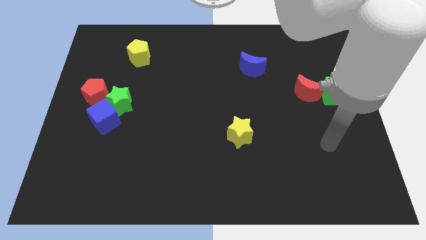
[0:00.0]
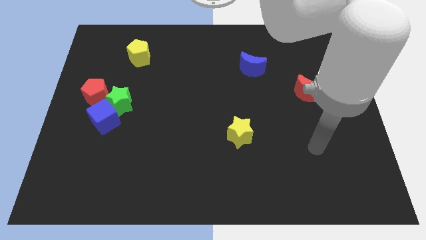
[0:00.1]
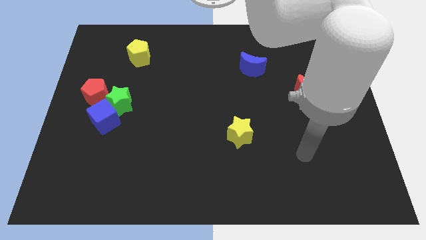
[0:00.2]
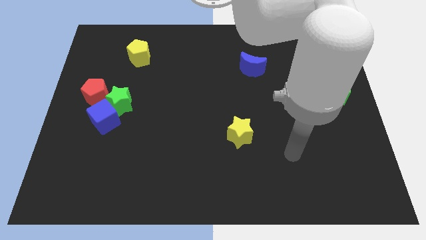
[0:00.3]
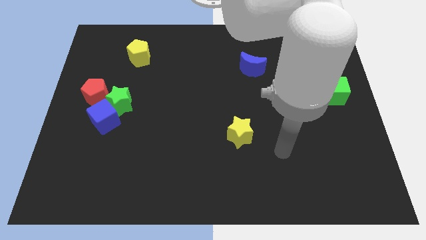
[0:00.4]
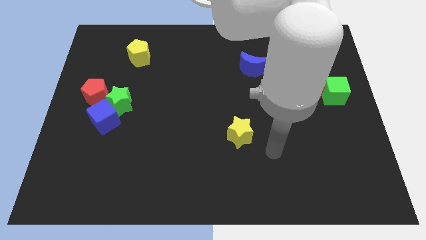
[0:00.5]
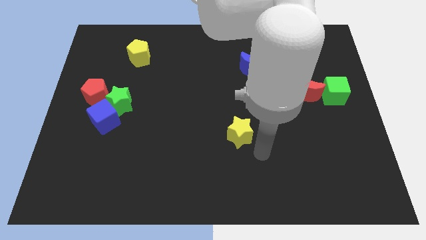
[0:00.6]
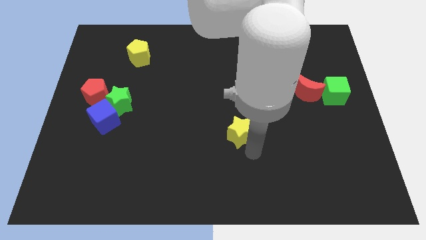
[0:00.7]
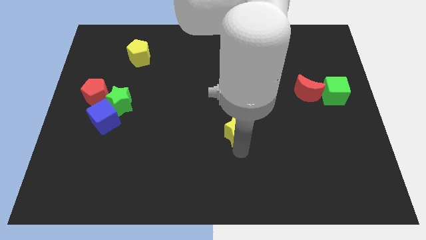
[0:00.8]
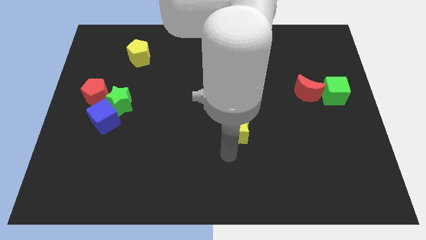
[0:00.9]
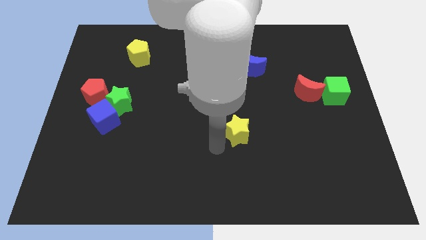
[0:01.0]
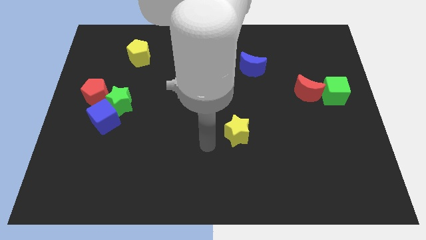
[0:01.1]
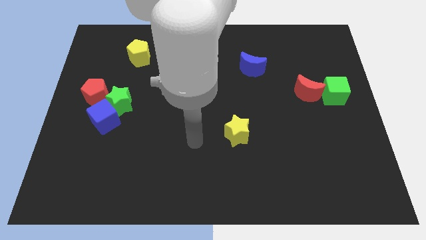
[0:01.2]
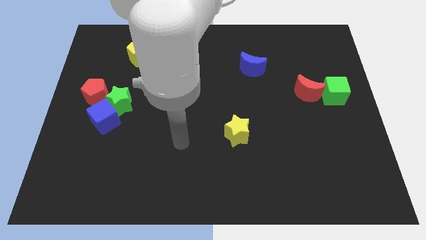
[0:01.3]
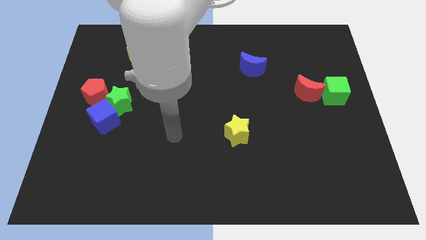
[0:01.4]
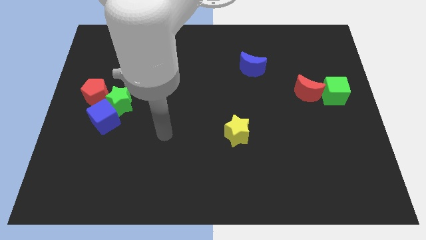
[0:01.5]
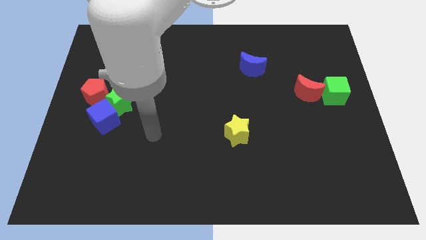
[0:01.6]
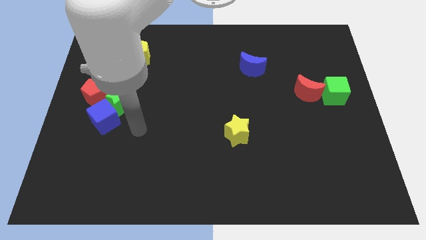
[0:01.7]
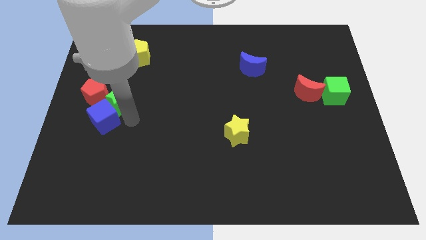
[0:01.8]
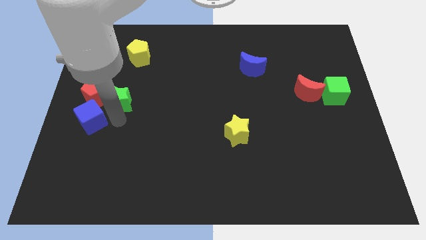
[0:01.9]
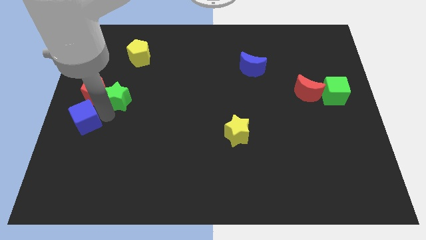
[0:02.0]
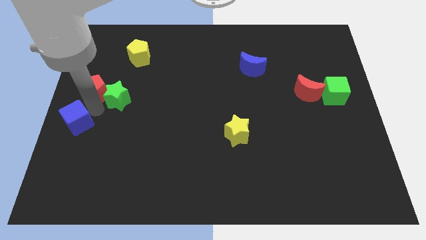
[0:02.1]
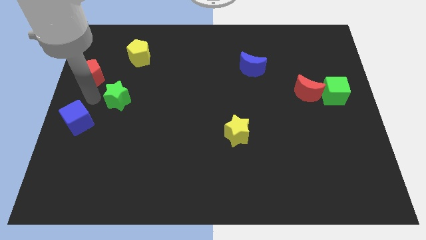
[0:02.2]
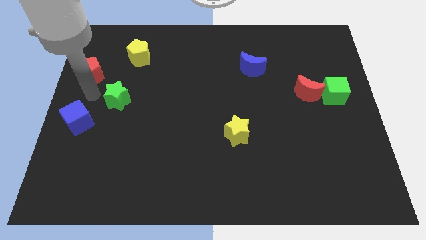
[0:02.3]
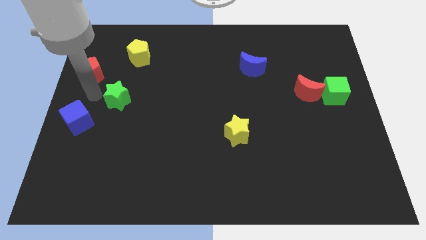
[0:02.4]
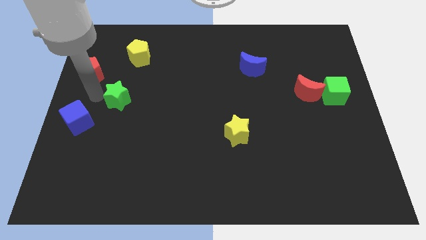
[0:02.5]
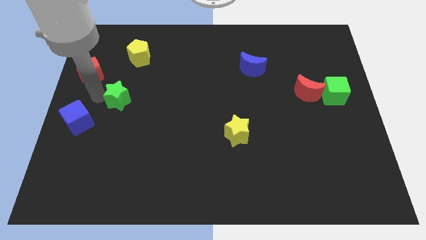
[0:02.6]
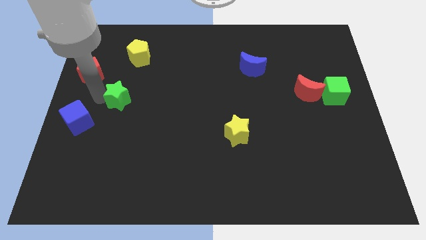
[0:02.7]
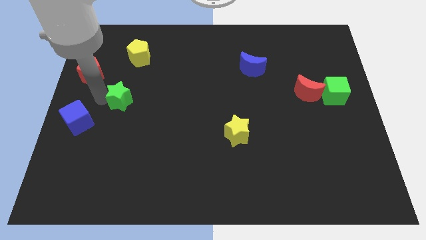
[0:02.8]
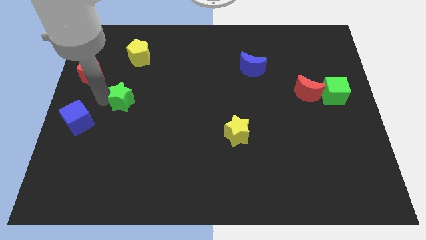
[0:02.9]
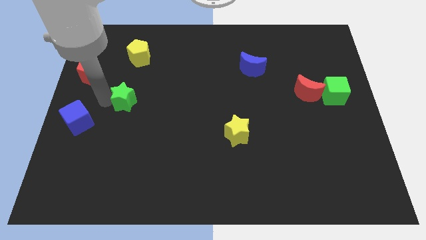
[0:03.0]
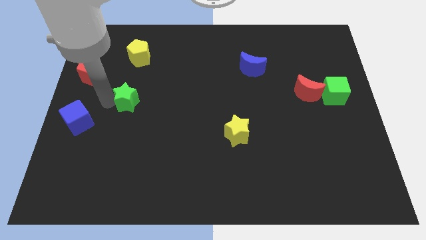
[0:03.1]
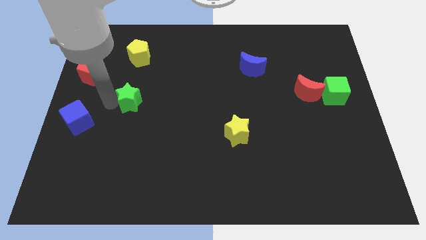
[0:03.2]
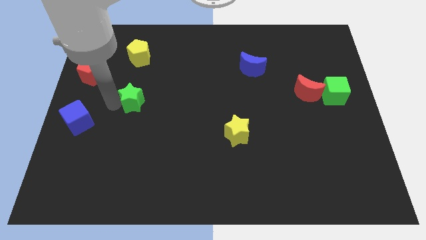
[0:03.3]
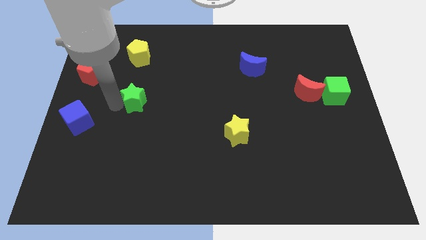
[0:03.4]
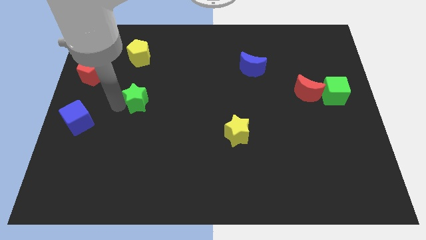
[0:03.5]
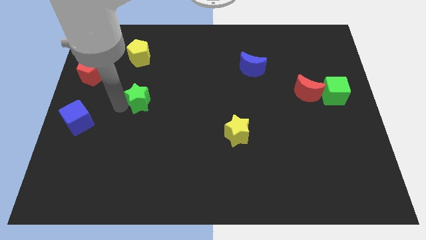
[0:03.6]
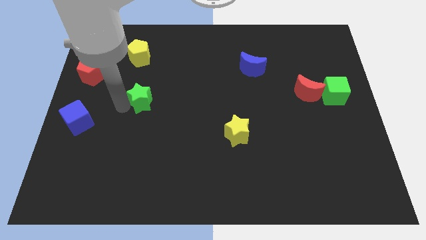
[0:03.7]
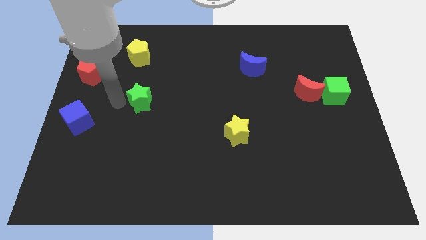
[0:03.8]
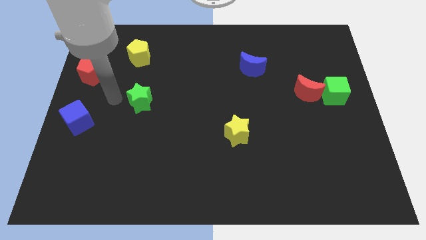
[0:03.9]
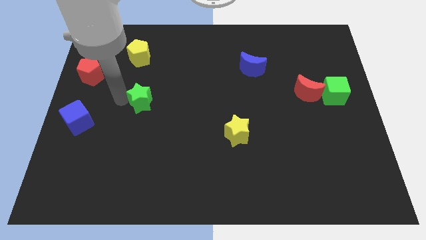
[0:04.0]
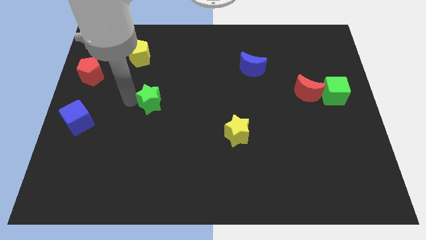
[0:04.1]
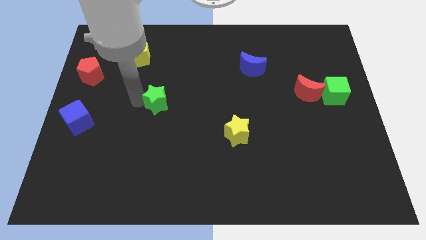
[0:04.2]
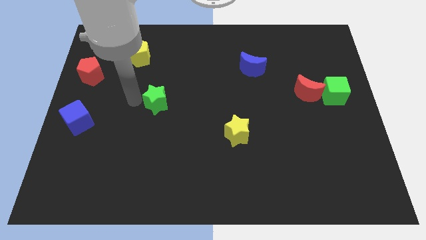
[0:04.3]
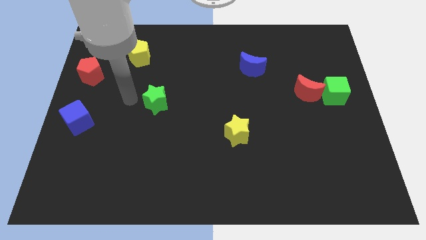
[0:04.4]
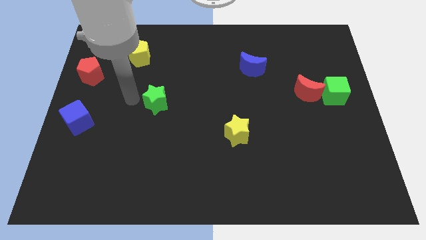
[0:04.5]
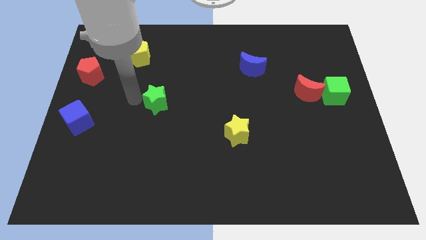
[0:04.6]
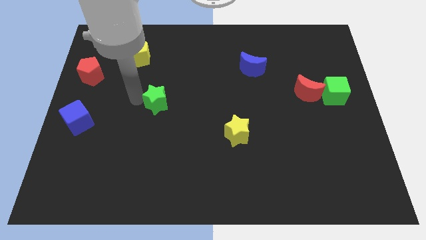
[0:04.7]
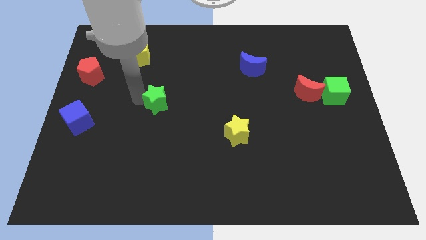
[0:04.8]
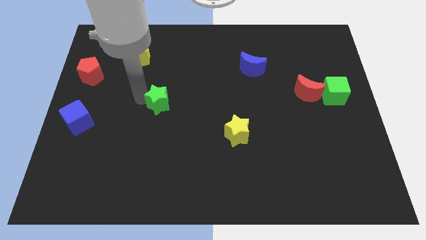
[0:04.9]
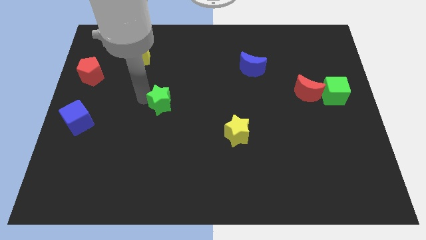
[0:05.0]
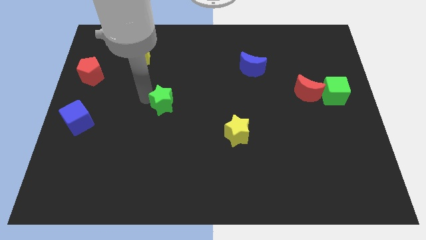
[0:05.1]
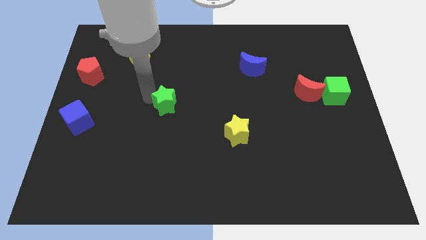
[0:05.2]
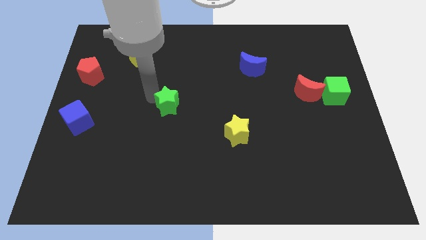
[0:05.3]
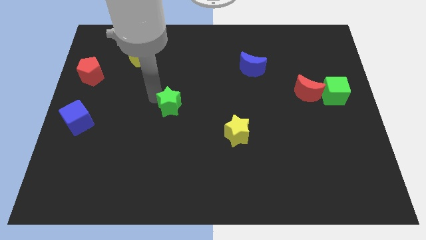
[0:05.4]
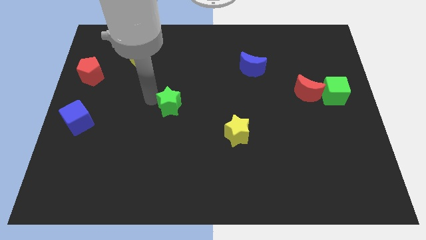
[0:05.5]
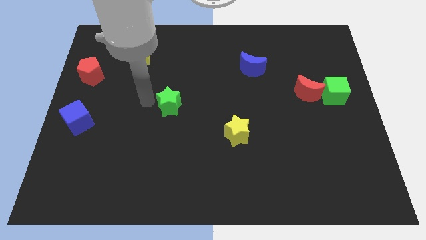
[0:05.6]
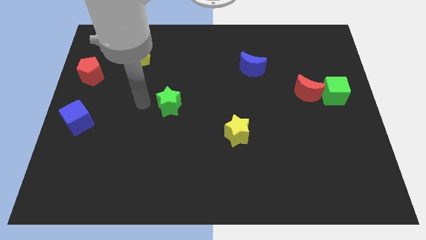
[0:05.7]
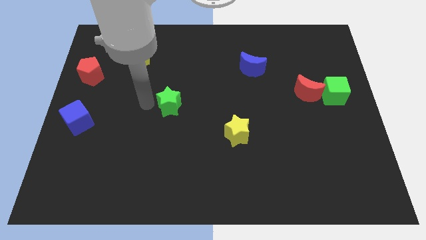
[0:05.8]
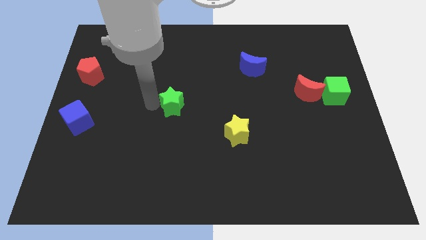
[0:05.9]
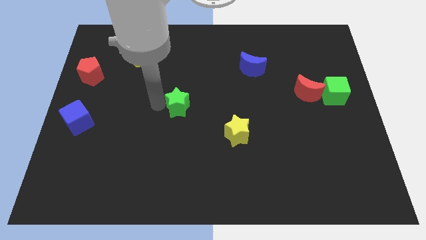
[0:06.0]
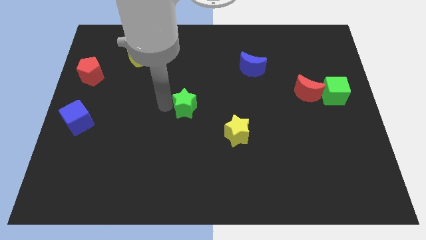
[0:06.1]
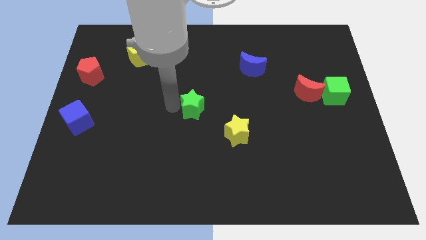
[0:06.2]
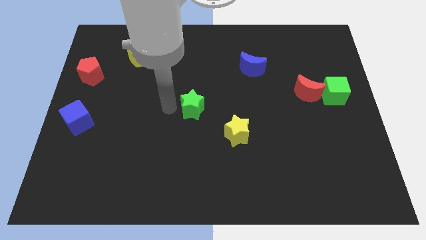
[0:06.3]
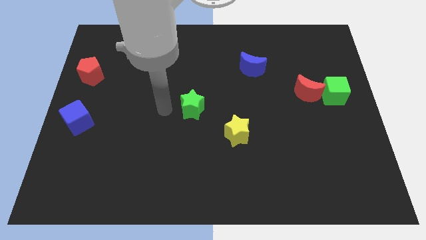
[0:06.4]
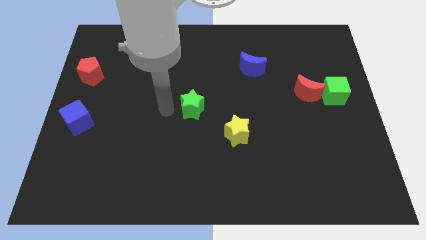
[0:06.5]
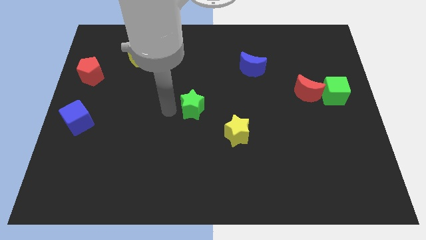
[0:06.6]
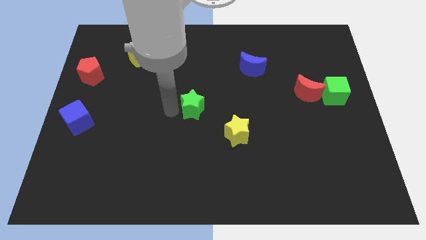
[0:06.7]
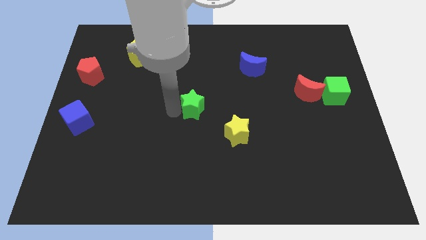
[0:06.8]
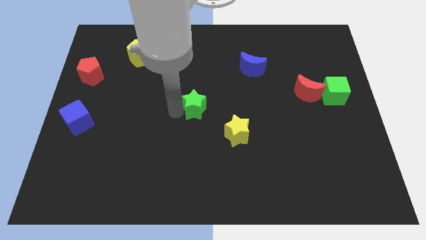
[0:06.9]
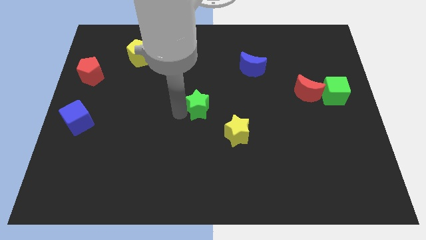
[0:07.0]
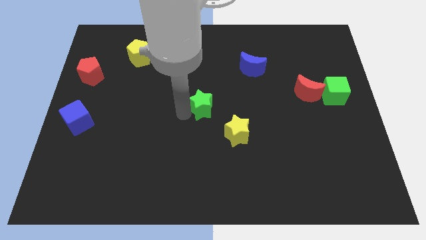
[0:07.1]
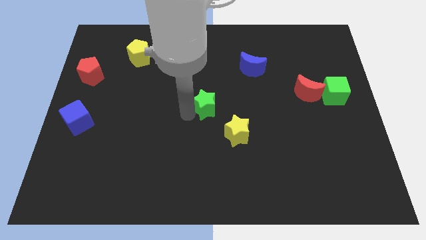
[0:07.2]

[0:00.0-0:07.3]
move the green star right

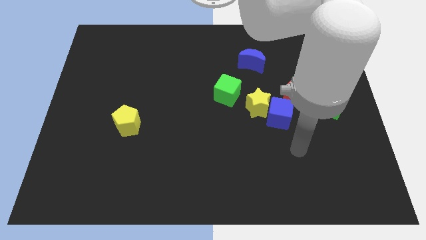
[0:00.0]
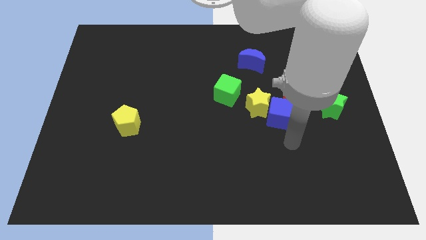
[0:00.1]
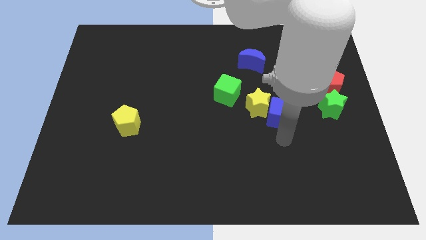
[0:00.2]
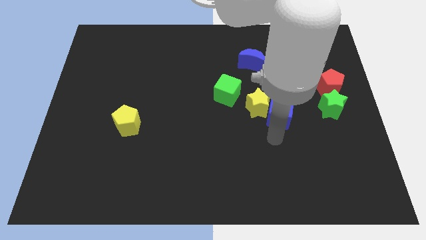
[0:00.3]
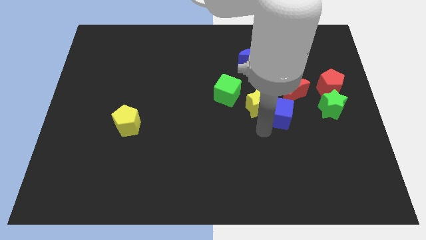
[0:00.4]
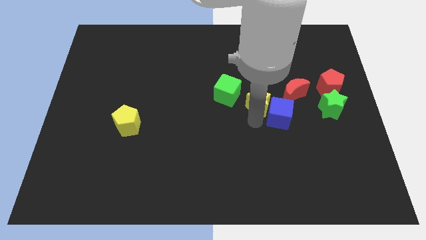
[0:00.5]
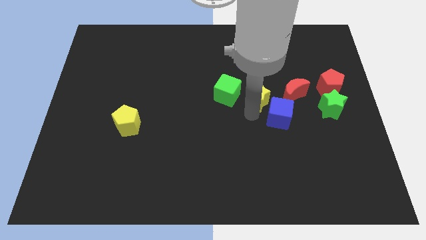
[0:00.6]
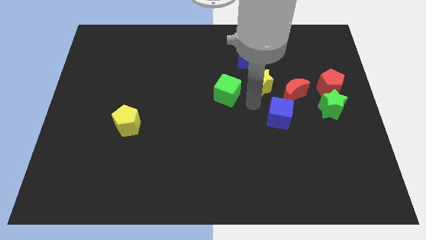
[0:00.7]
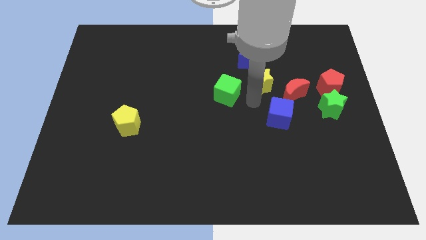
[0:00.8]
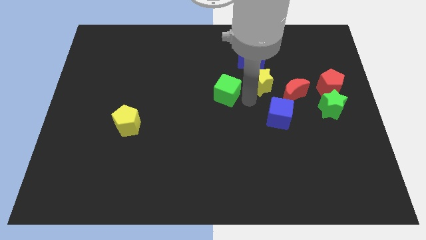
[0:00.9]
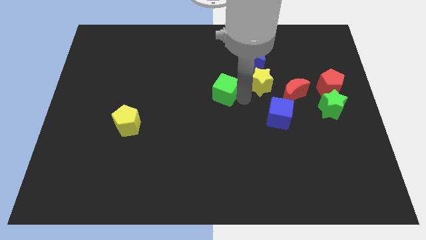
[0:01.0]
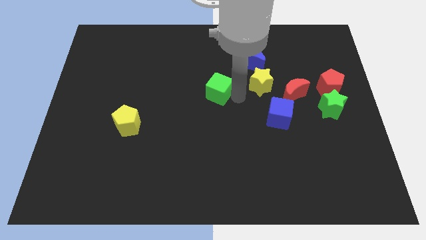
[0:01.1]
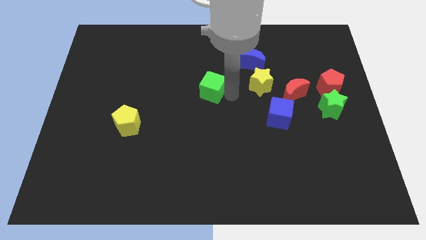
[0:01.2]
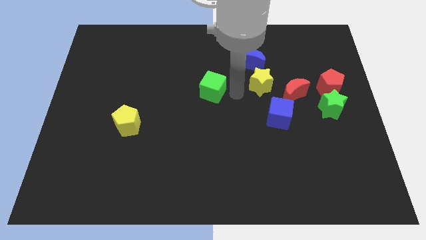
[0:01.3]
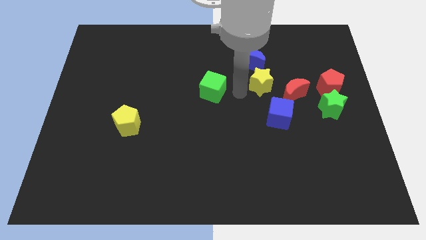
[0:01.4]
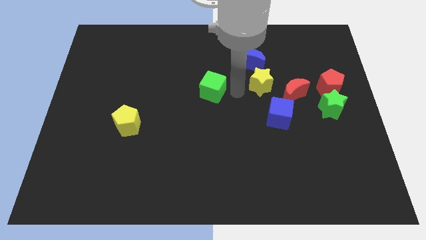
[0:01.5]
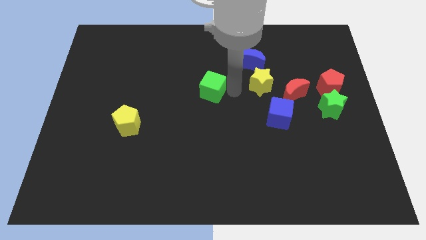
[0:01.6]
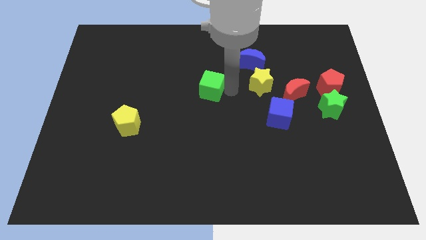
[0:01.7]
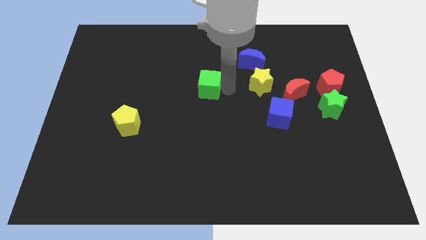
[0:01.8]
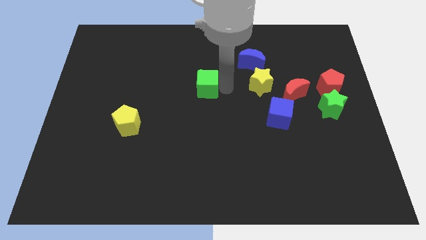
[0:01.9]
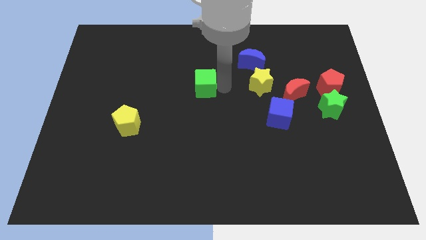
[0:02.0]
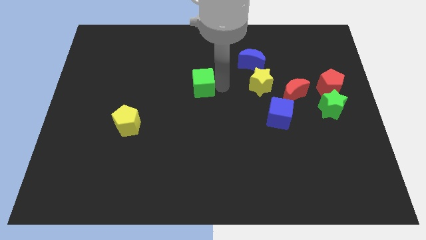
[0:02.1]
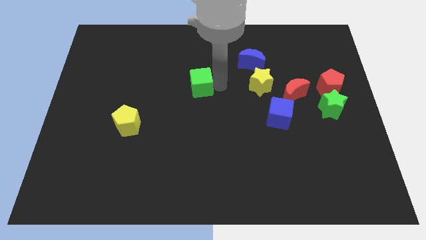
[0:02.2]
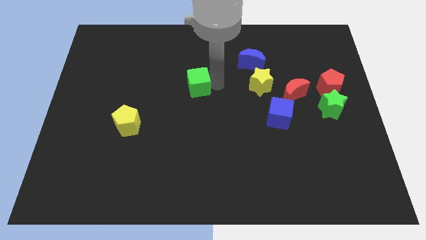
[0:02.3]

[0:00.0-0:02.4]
slightly slide the green cube left
